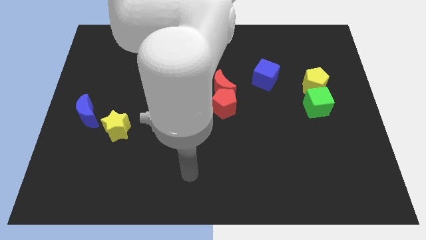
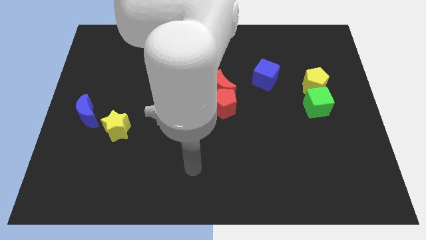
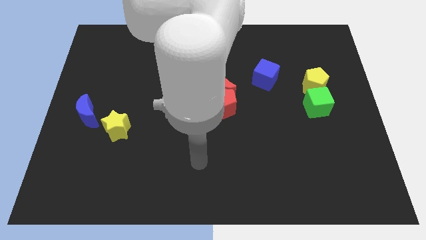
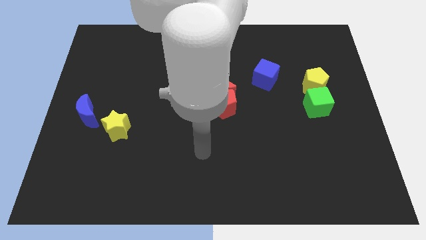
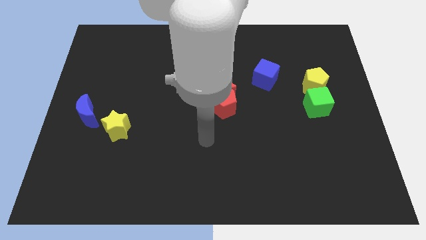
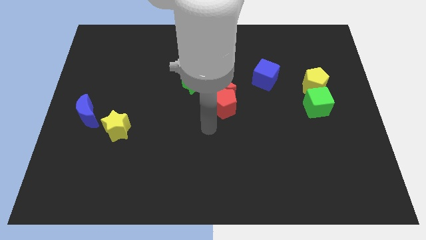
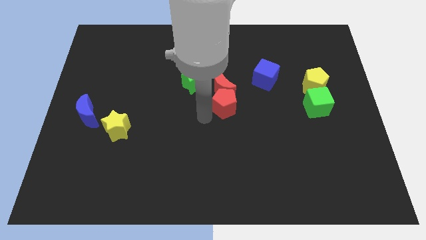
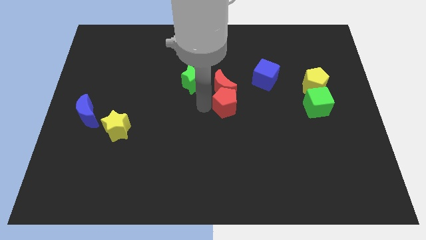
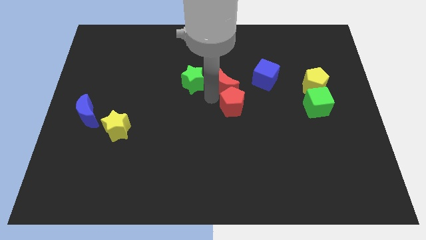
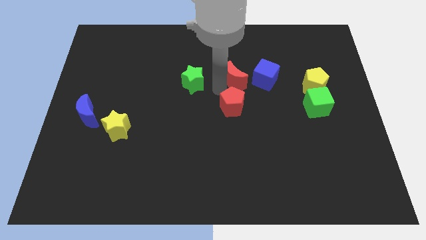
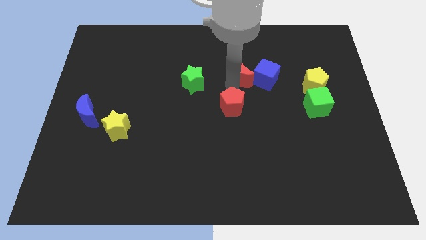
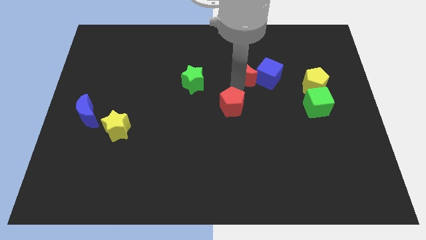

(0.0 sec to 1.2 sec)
separate the red pentagon from the red moon

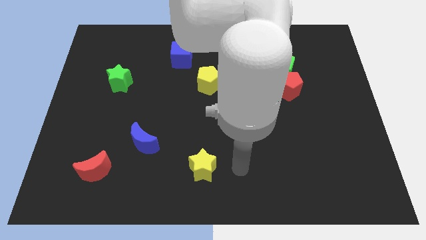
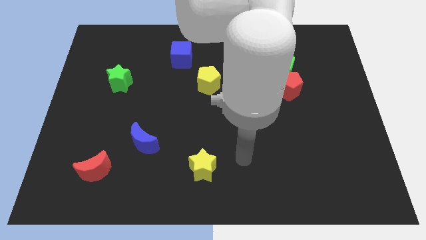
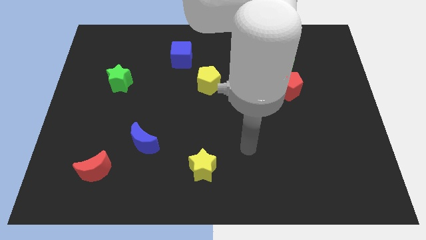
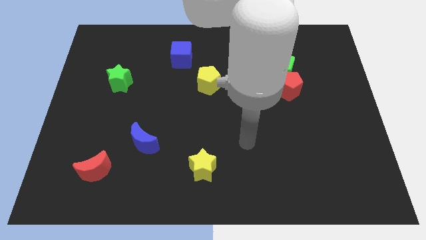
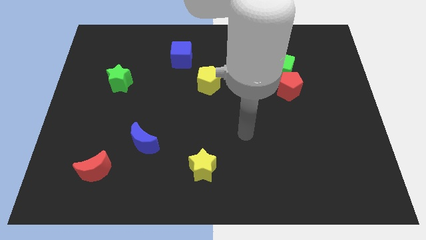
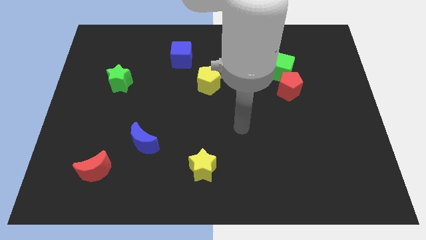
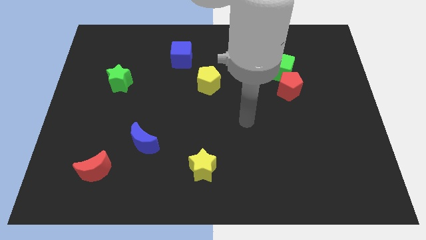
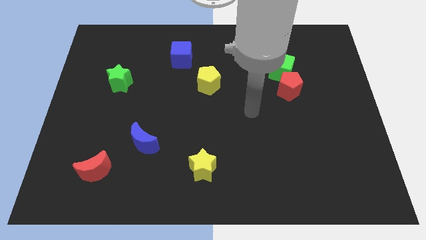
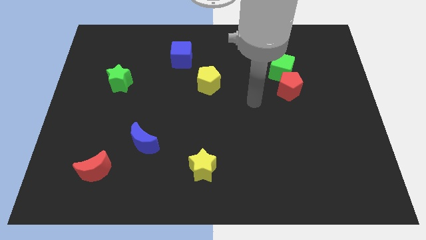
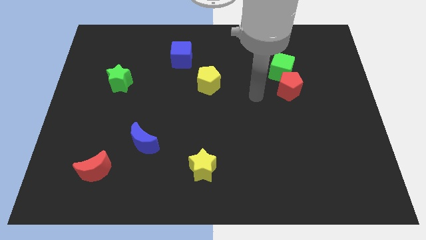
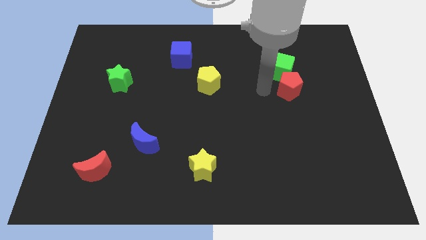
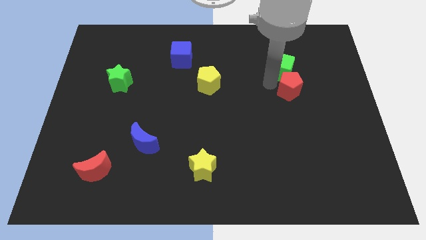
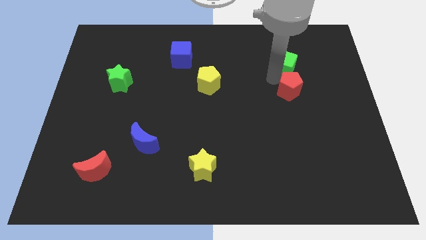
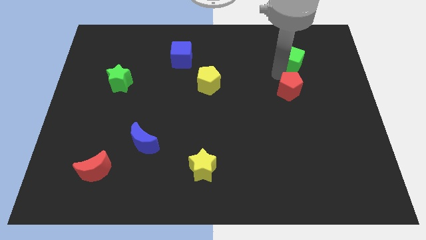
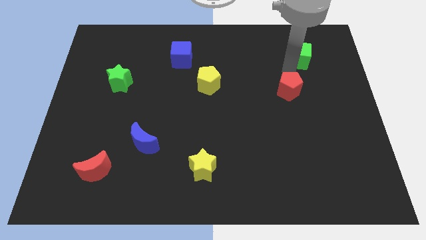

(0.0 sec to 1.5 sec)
move the red pentagon away from the green cube

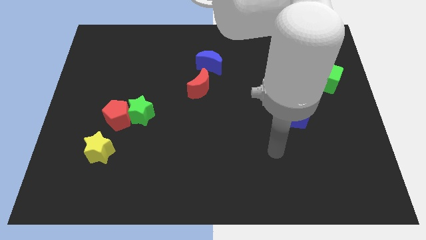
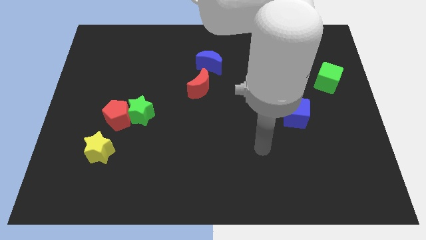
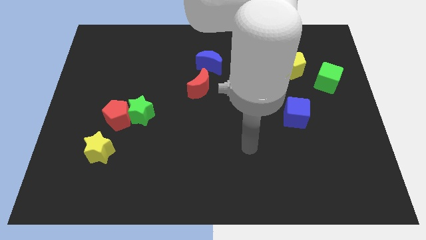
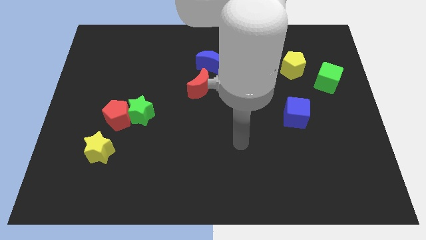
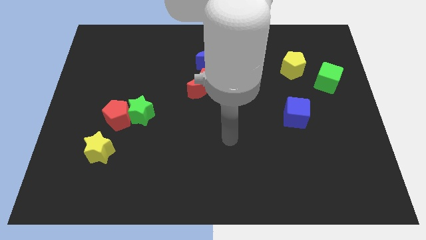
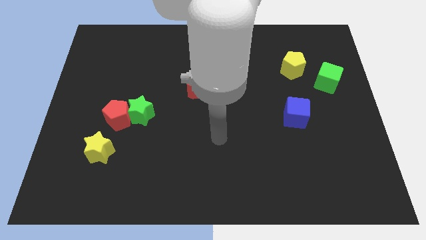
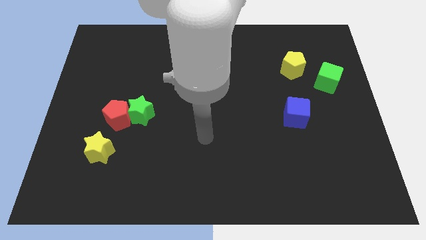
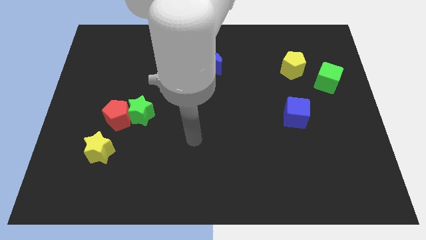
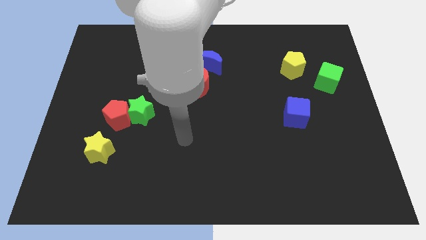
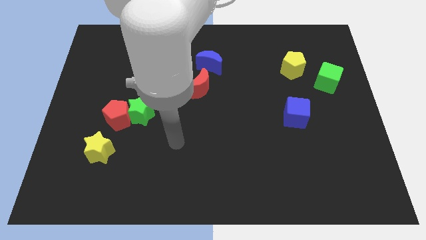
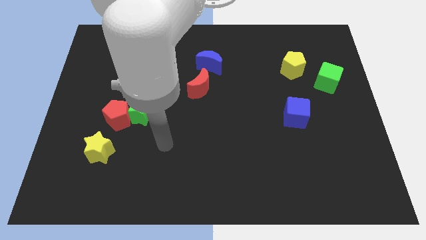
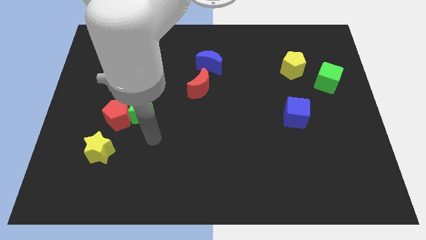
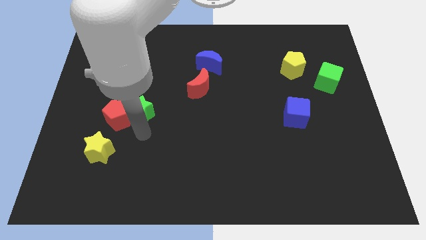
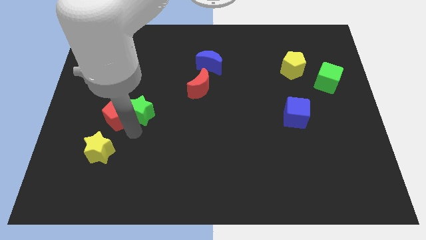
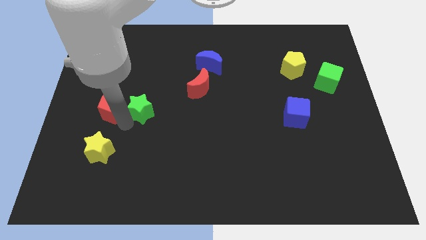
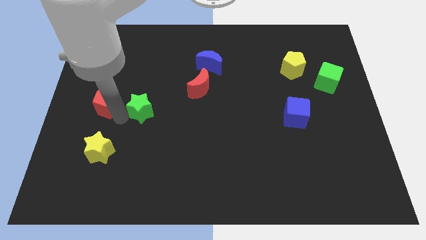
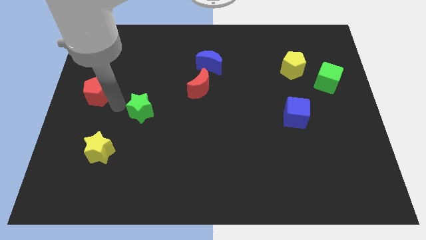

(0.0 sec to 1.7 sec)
pull the green star apart from the red pentagon

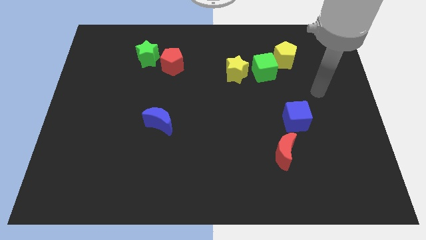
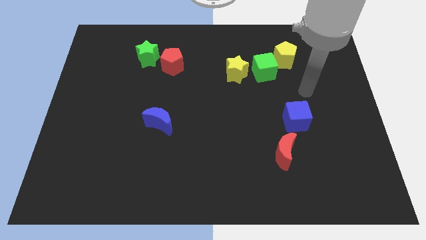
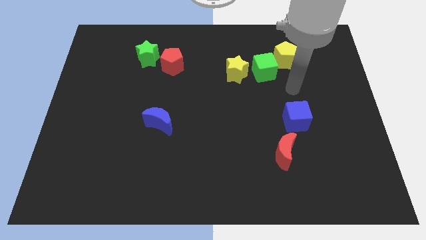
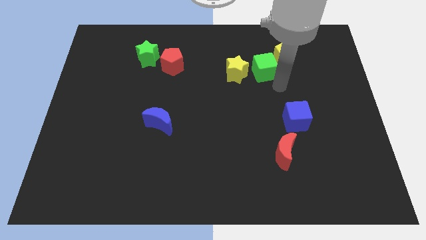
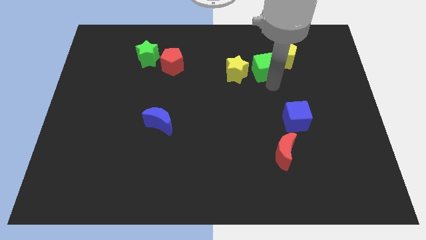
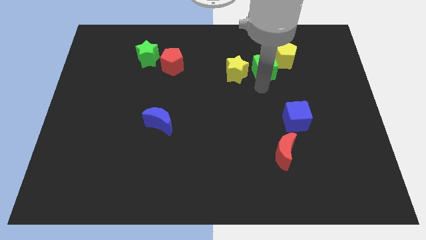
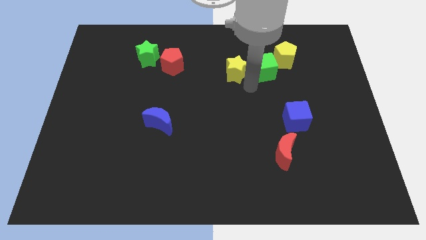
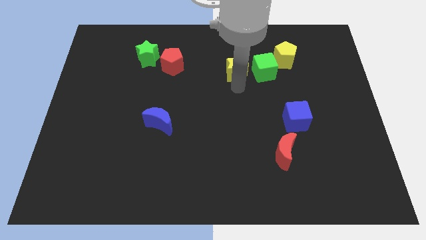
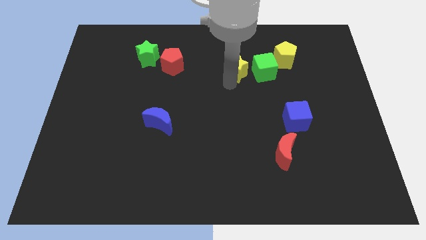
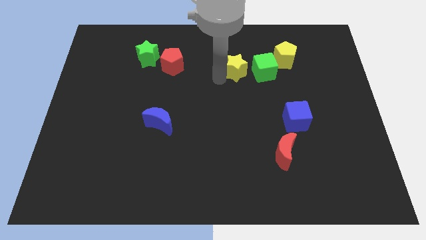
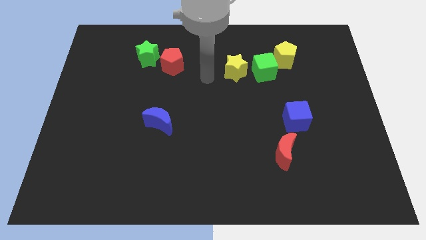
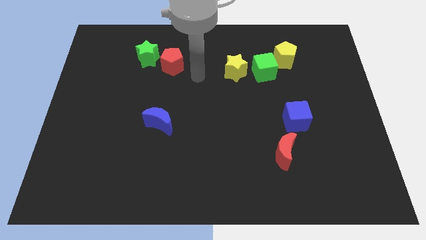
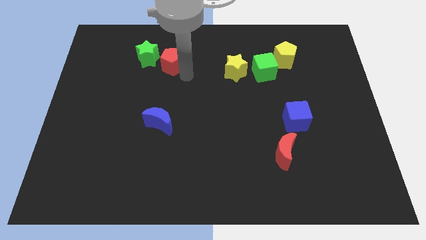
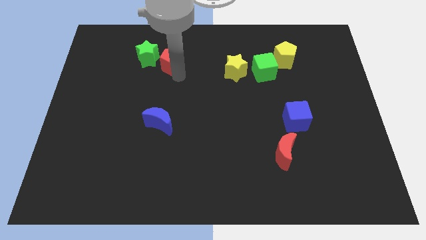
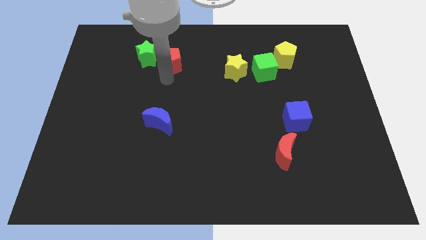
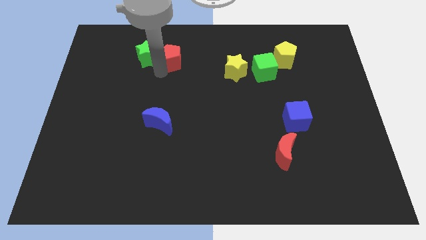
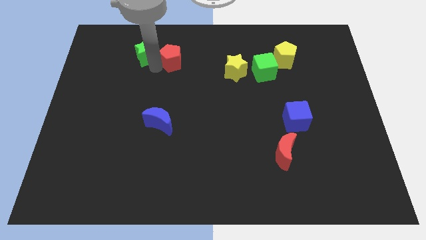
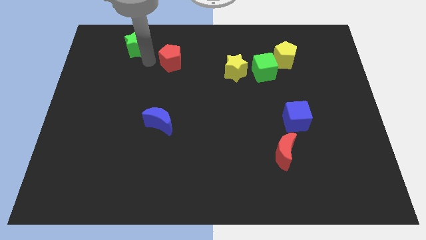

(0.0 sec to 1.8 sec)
separate the red pentagon from the green star

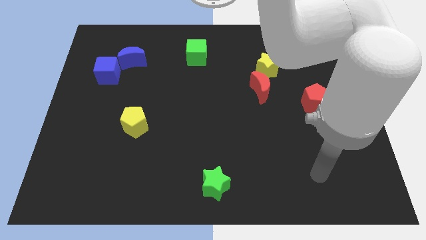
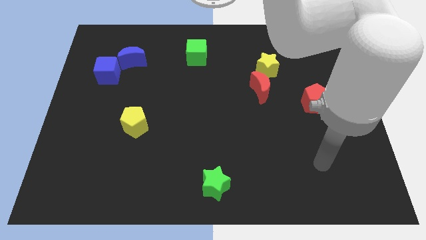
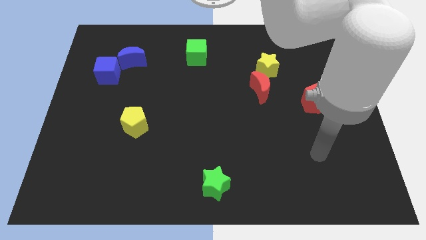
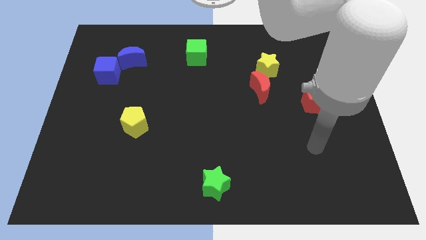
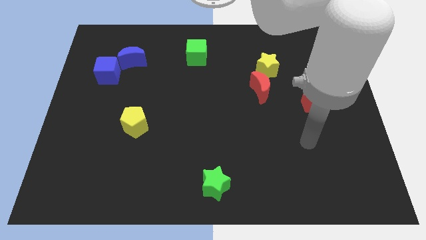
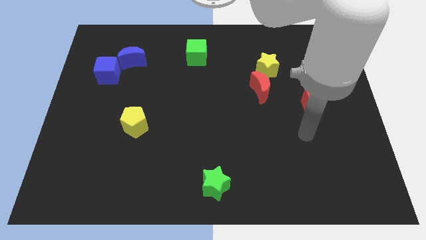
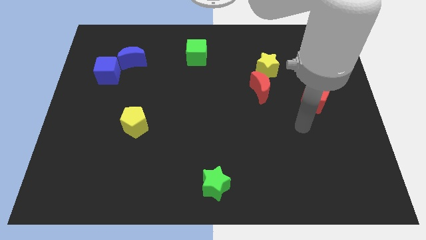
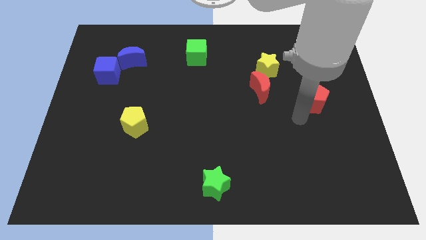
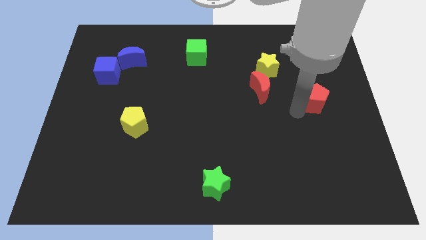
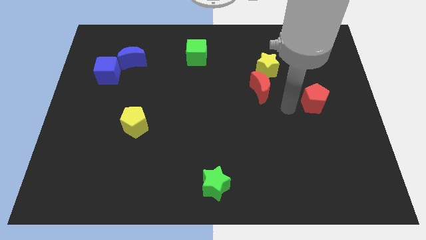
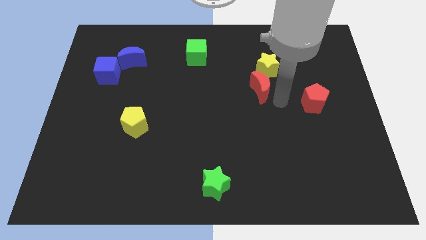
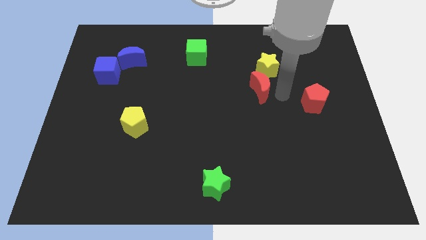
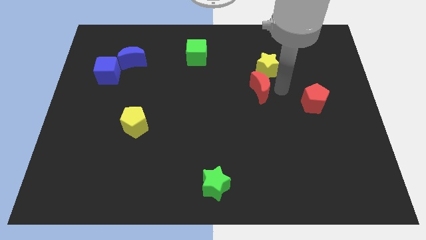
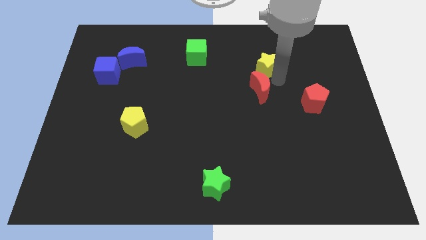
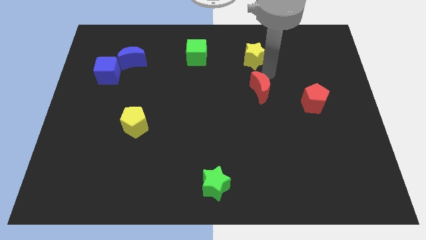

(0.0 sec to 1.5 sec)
move the red moon away from the yellow star

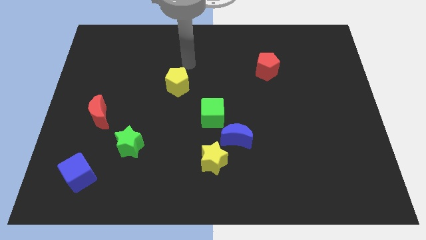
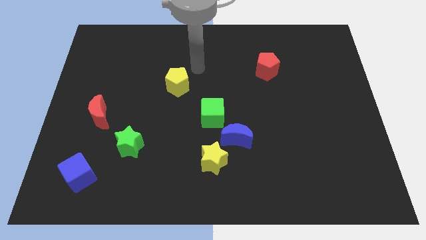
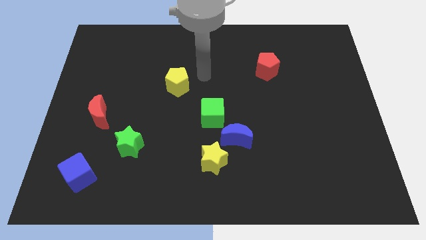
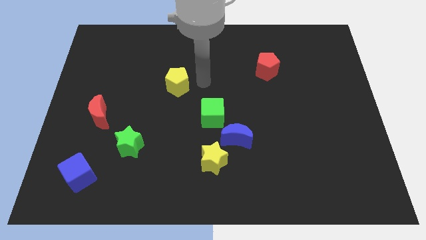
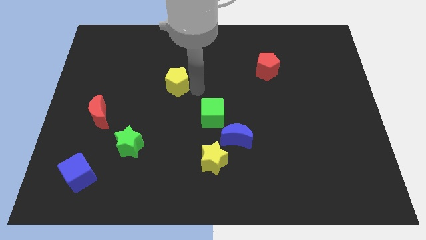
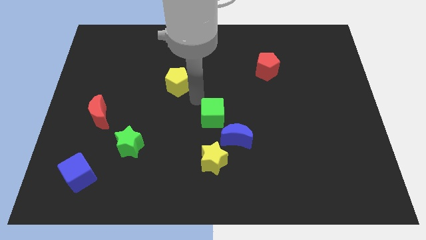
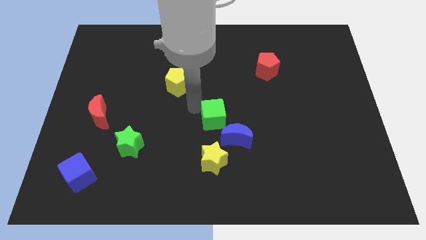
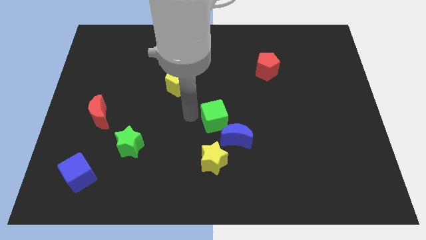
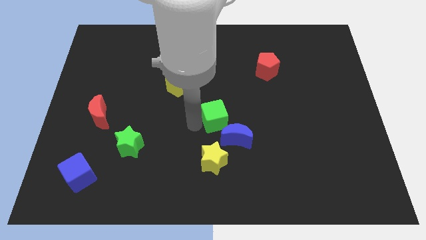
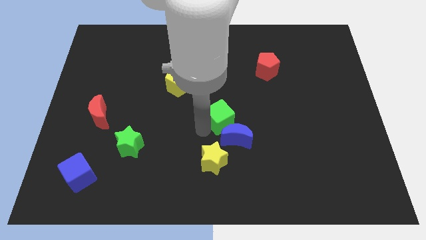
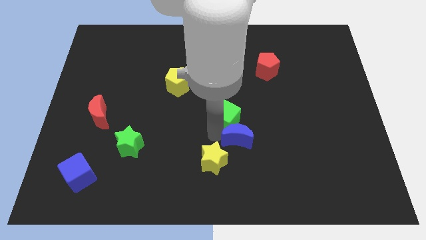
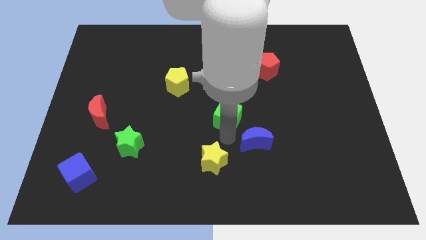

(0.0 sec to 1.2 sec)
move the yellow star away from the blue moon

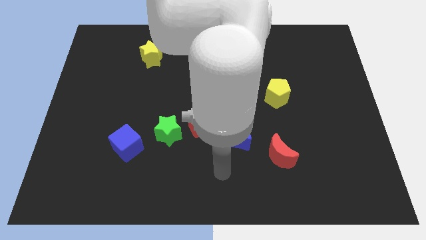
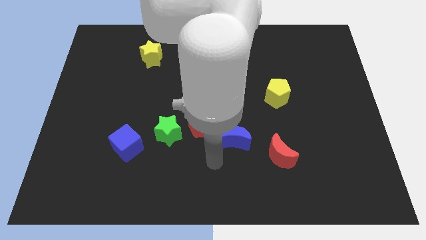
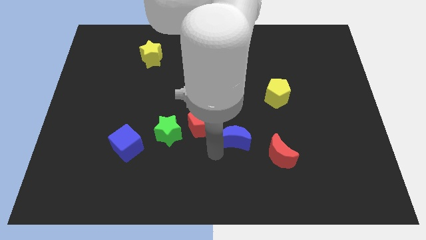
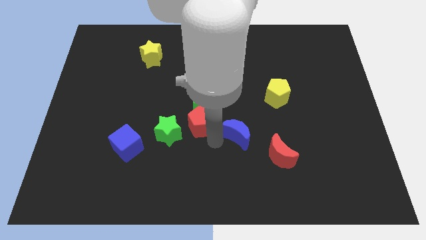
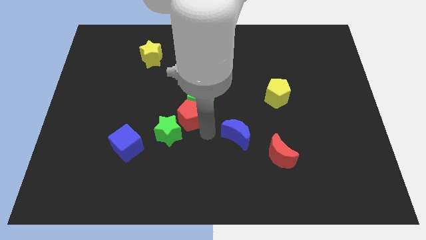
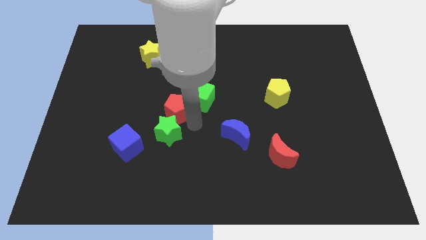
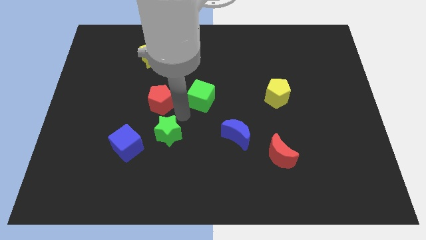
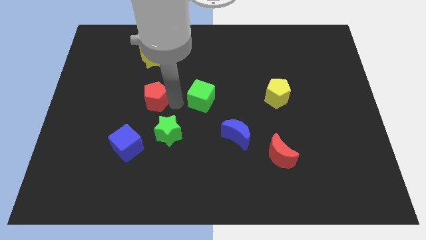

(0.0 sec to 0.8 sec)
move the green cube away from the red pentagon
